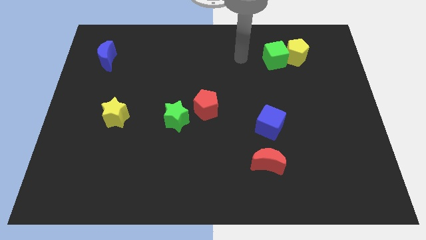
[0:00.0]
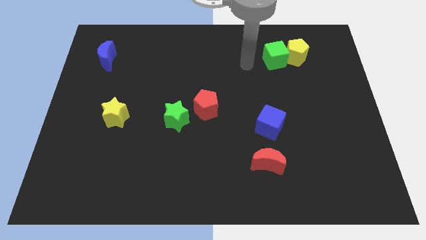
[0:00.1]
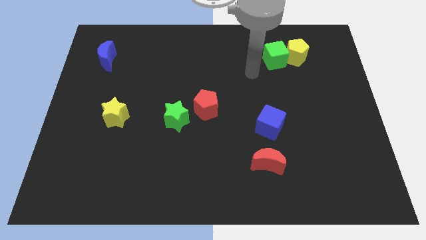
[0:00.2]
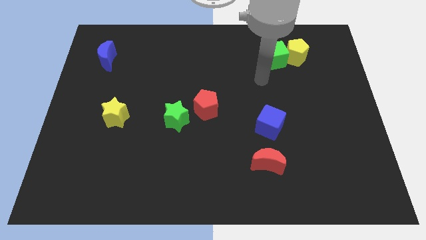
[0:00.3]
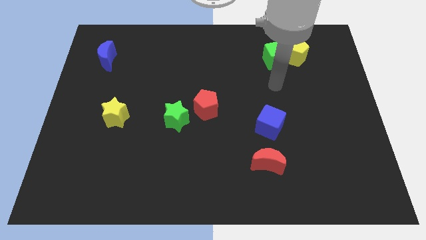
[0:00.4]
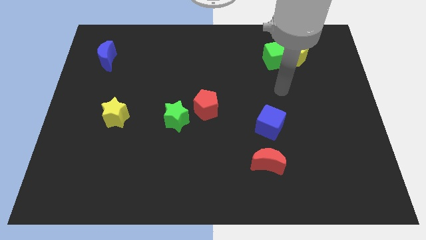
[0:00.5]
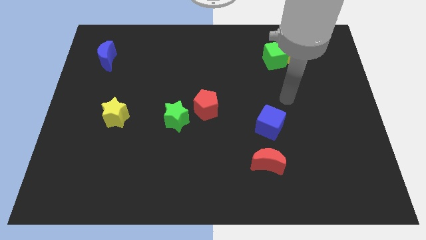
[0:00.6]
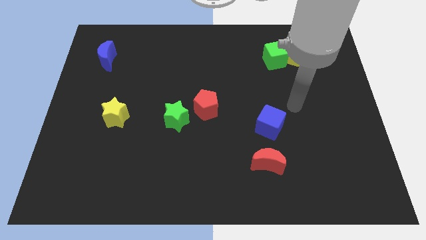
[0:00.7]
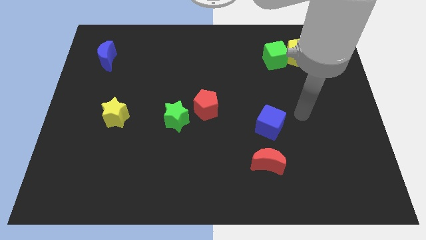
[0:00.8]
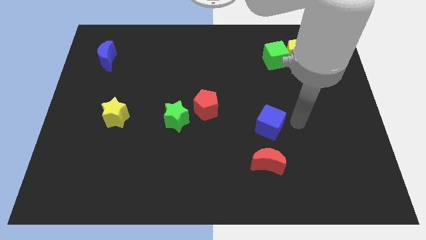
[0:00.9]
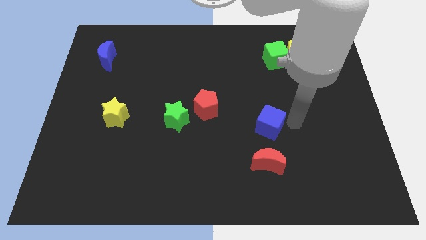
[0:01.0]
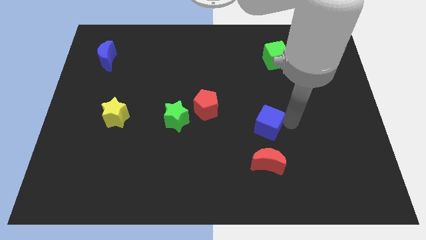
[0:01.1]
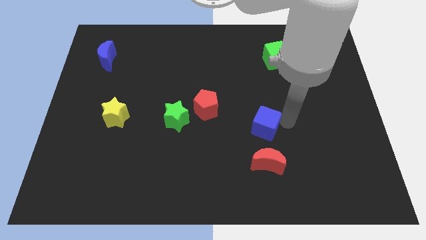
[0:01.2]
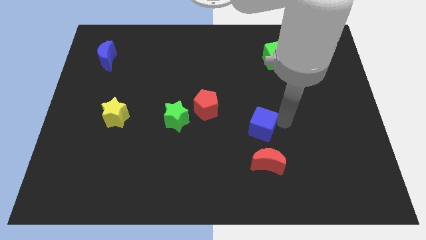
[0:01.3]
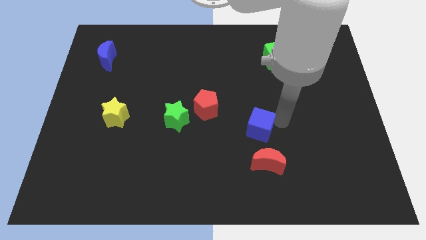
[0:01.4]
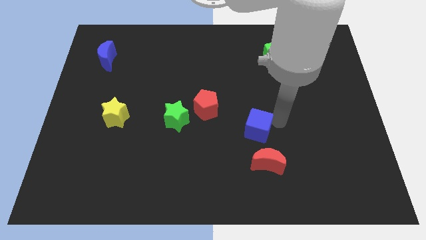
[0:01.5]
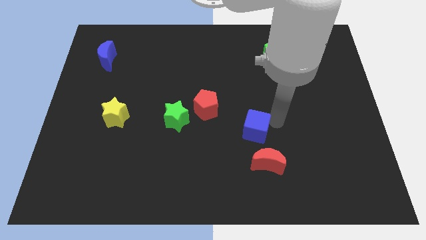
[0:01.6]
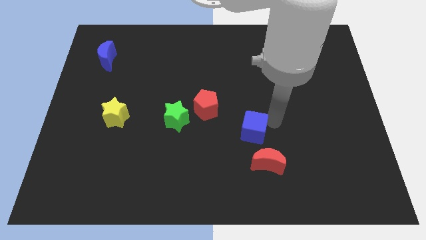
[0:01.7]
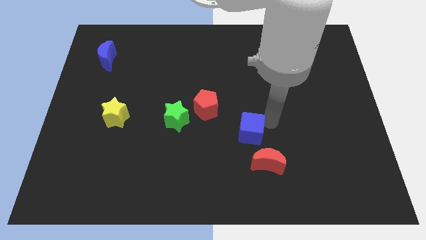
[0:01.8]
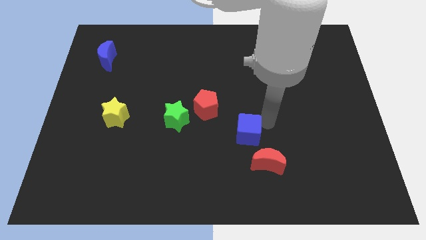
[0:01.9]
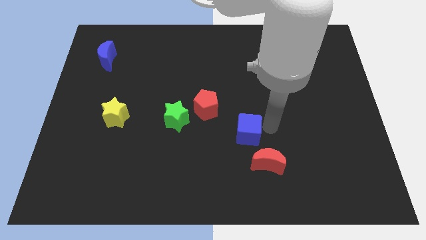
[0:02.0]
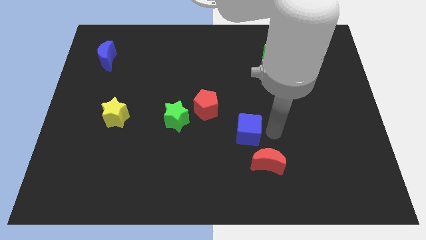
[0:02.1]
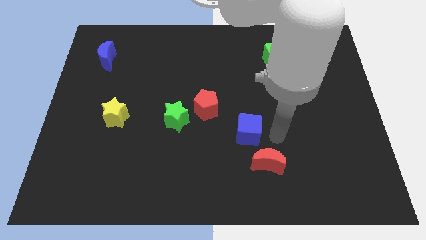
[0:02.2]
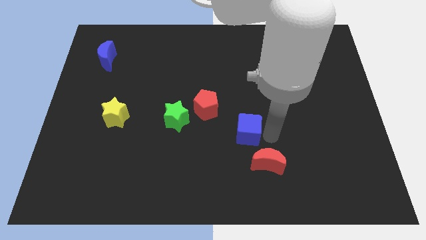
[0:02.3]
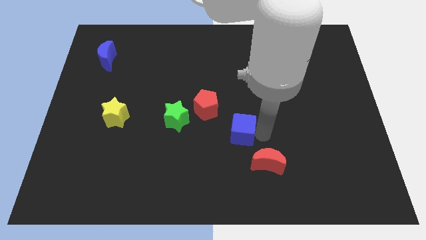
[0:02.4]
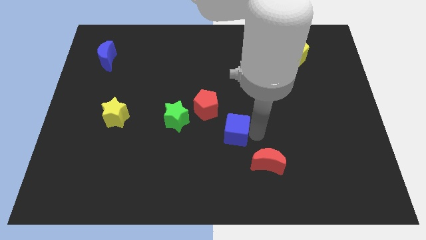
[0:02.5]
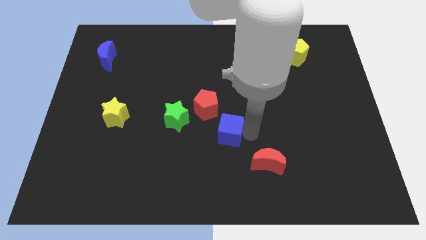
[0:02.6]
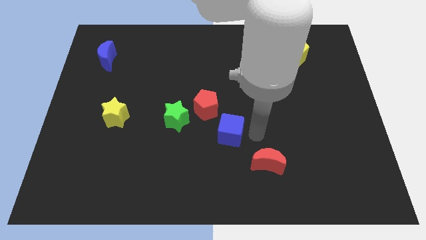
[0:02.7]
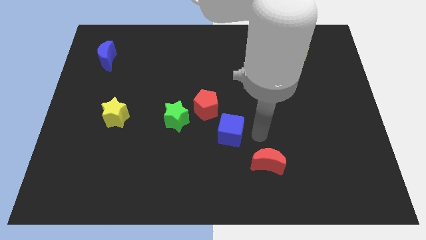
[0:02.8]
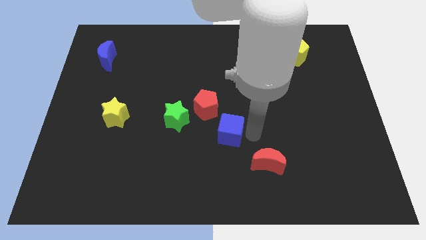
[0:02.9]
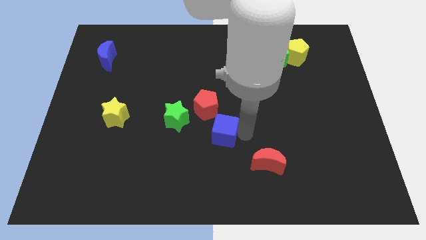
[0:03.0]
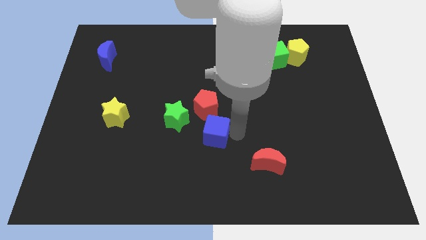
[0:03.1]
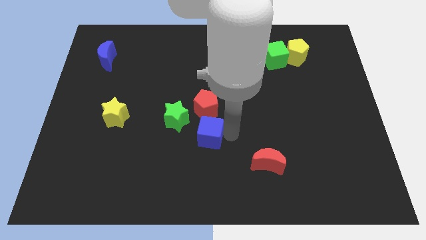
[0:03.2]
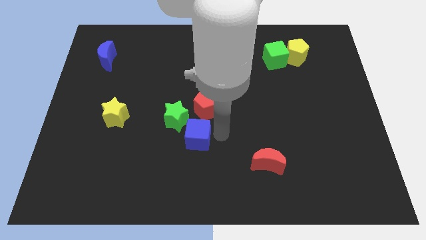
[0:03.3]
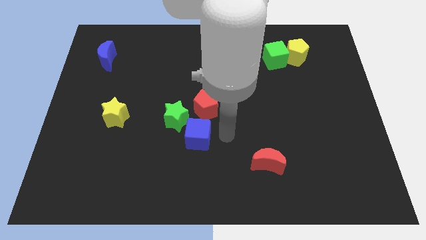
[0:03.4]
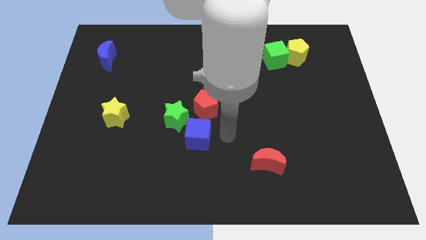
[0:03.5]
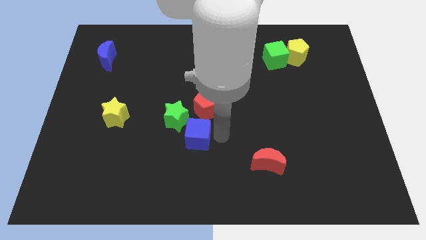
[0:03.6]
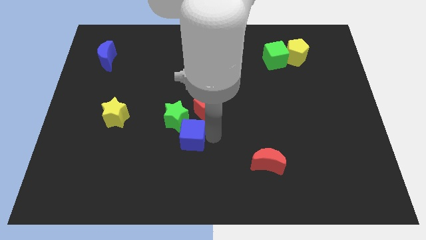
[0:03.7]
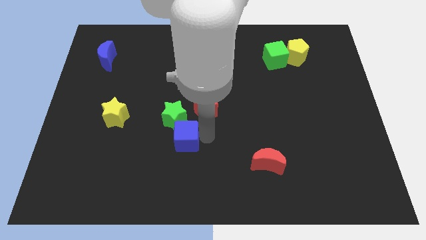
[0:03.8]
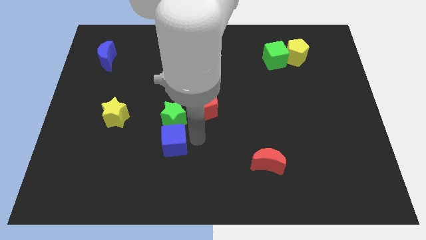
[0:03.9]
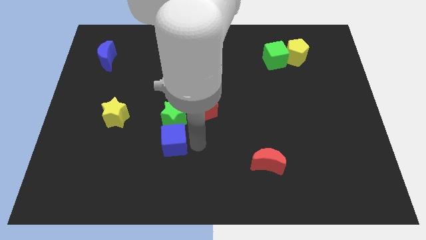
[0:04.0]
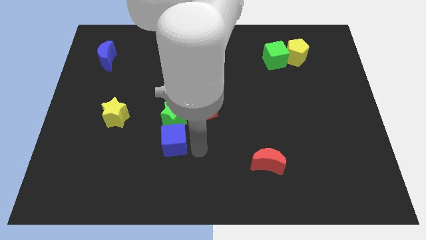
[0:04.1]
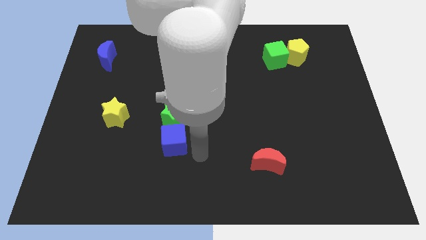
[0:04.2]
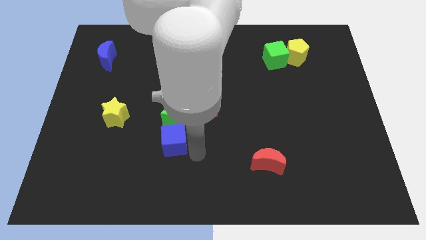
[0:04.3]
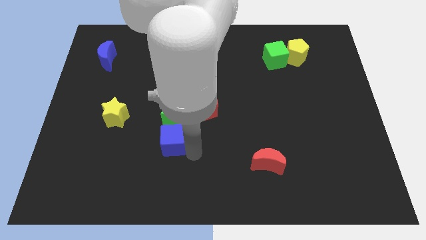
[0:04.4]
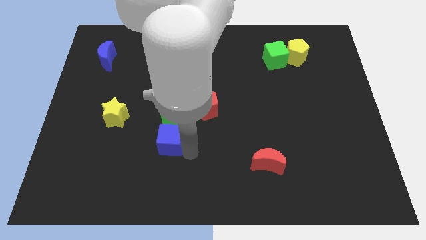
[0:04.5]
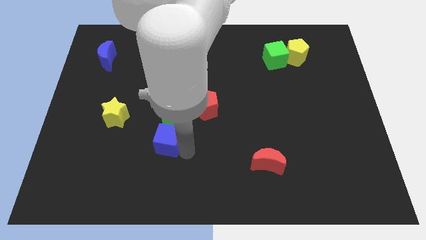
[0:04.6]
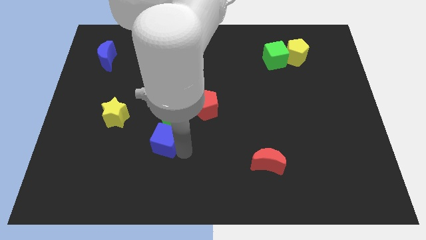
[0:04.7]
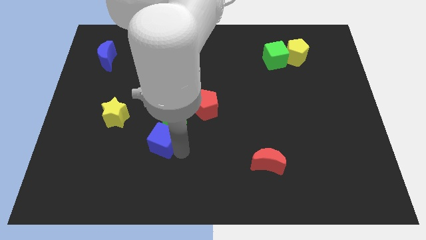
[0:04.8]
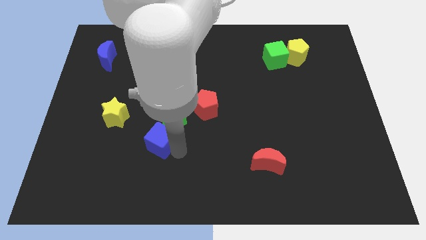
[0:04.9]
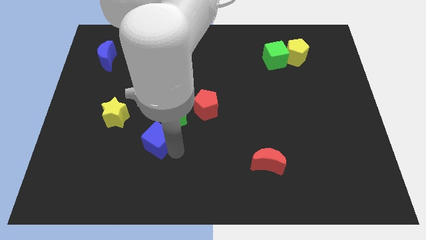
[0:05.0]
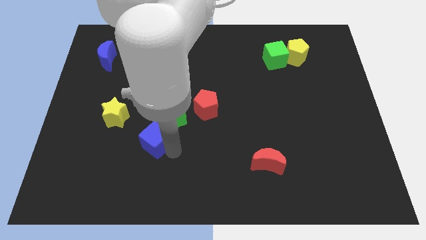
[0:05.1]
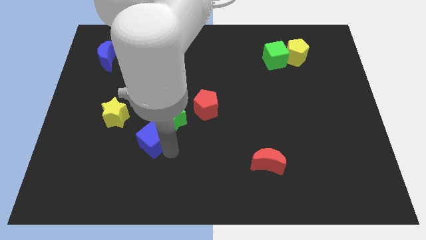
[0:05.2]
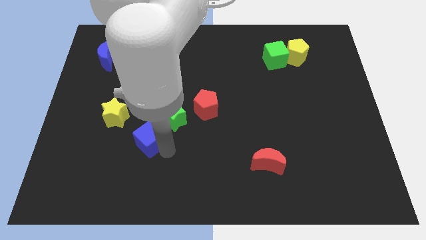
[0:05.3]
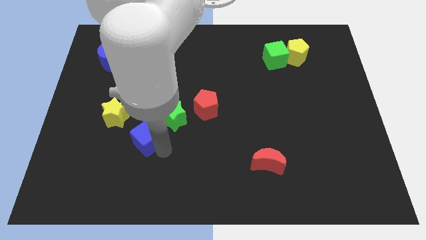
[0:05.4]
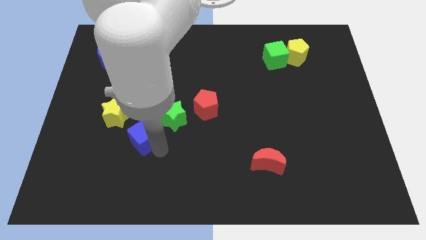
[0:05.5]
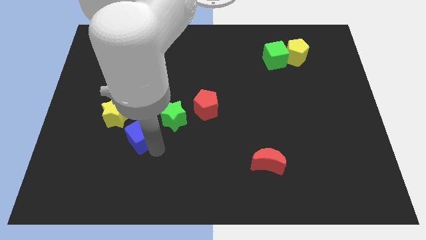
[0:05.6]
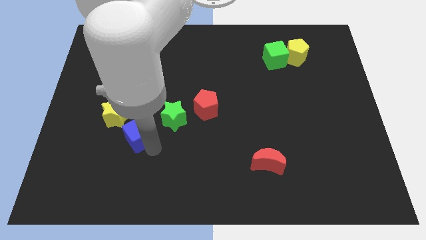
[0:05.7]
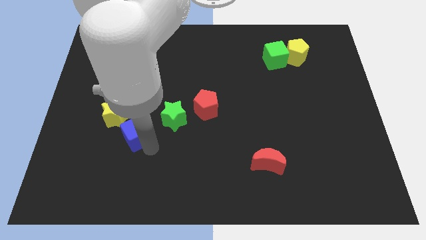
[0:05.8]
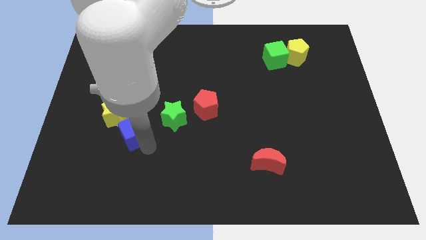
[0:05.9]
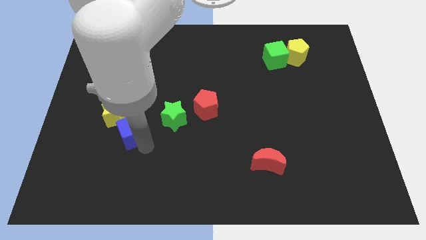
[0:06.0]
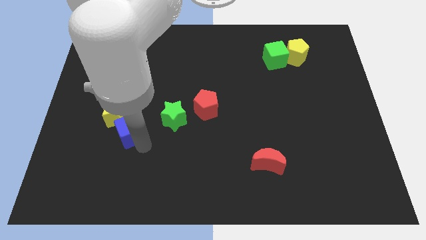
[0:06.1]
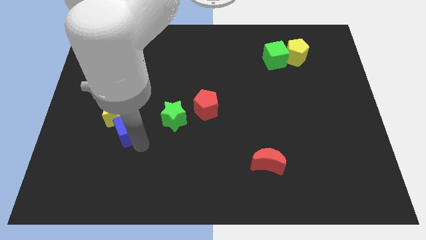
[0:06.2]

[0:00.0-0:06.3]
move the blue cube towards the yellow star

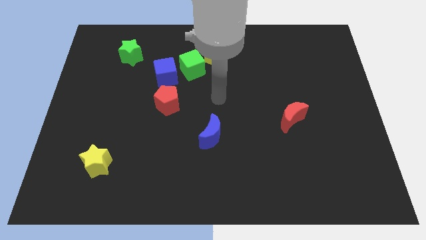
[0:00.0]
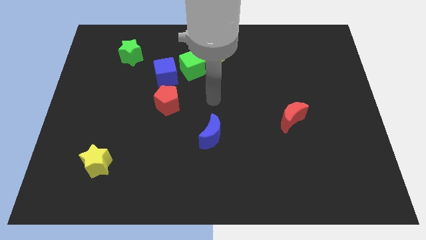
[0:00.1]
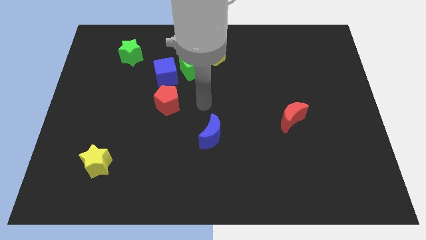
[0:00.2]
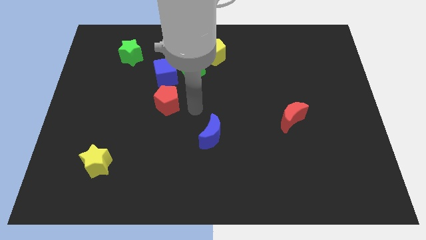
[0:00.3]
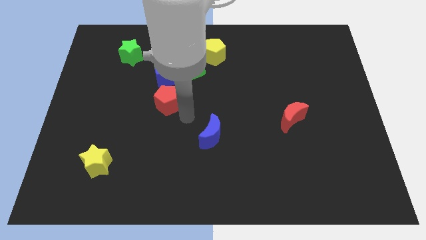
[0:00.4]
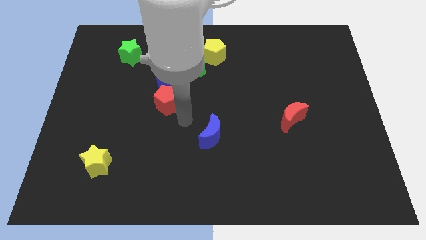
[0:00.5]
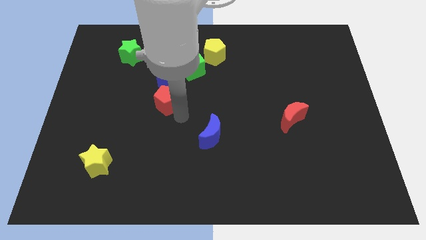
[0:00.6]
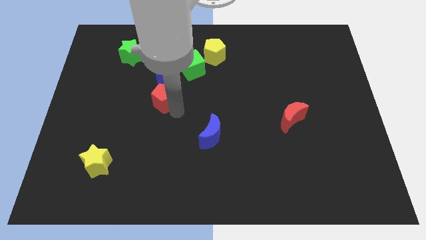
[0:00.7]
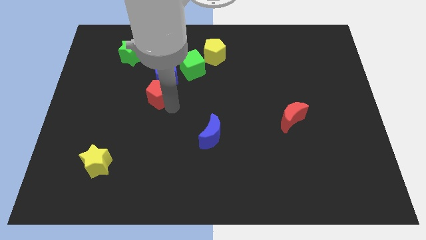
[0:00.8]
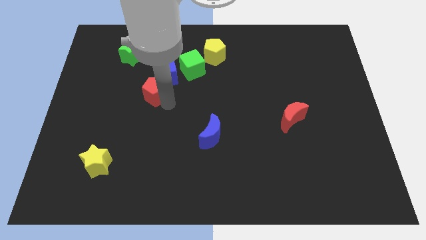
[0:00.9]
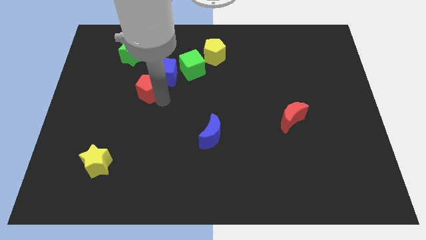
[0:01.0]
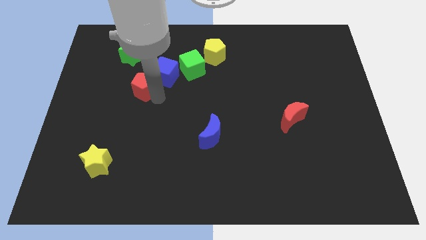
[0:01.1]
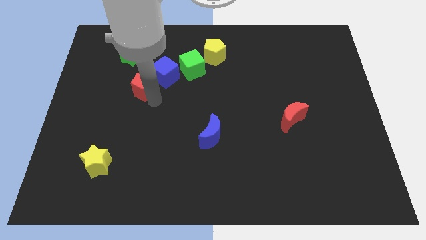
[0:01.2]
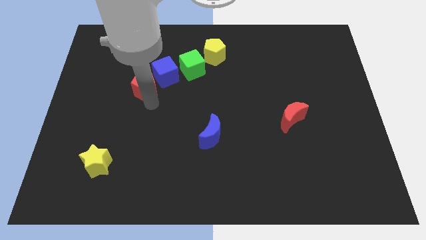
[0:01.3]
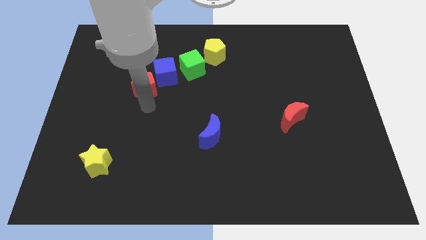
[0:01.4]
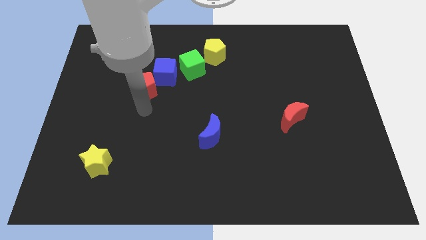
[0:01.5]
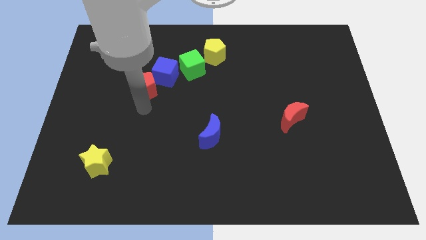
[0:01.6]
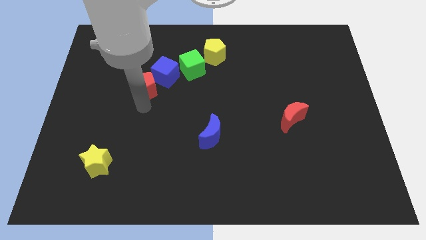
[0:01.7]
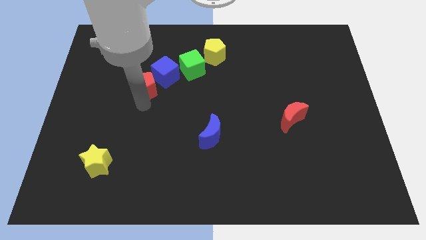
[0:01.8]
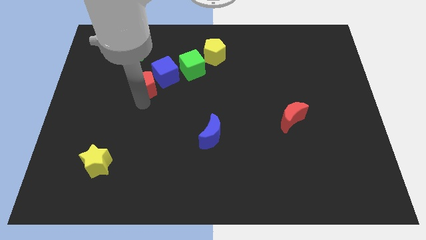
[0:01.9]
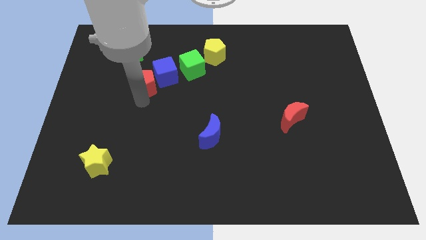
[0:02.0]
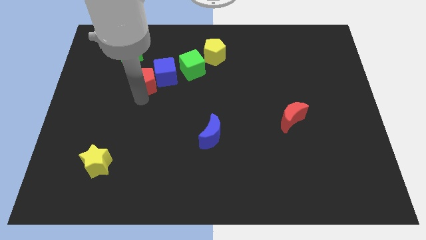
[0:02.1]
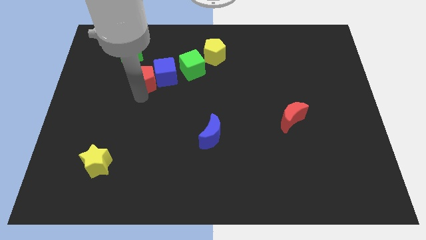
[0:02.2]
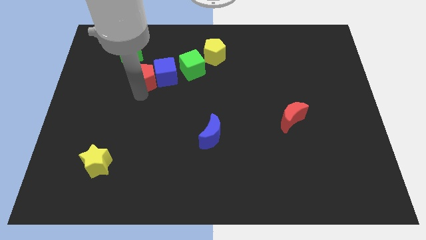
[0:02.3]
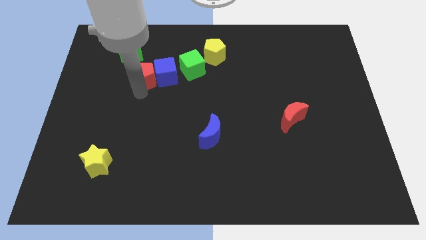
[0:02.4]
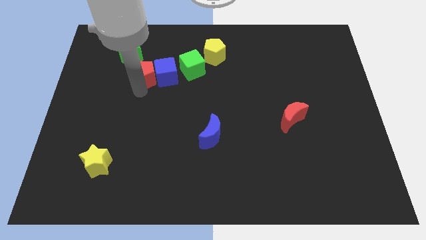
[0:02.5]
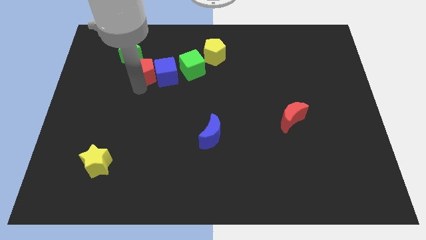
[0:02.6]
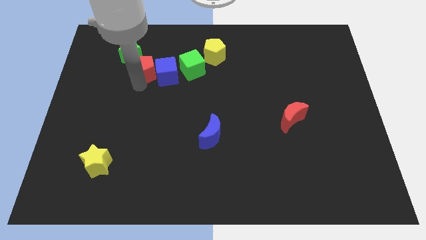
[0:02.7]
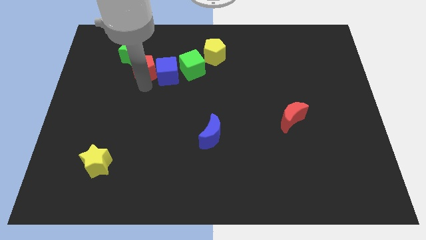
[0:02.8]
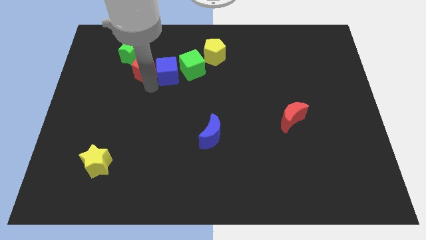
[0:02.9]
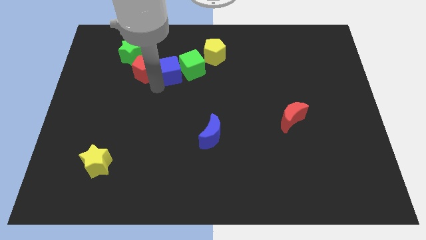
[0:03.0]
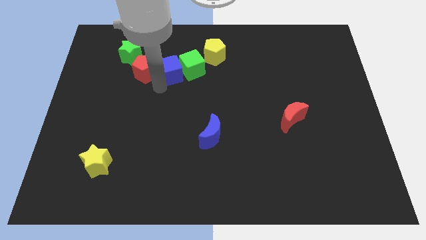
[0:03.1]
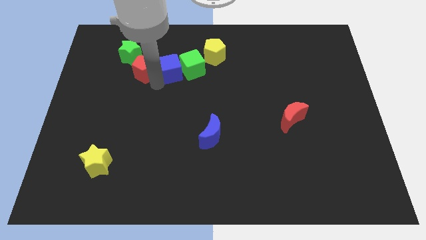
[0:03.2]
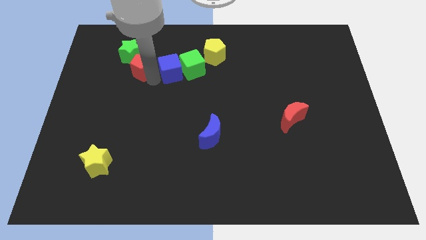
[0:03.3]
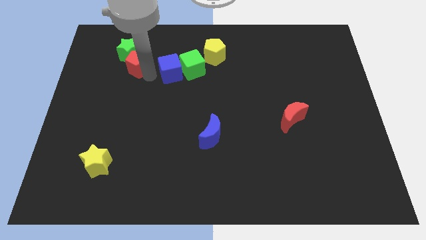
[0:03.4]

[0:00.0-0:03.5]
move the red pentagon towards the green star
